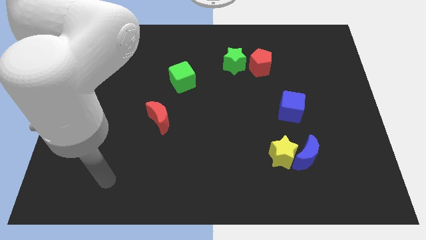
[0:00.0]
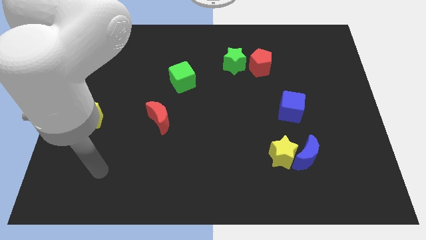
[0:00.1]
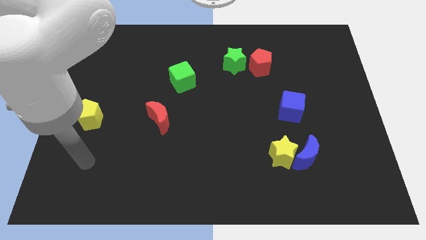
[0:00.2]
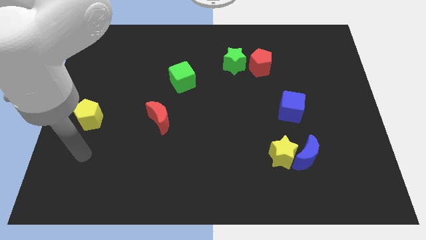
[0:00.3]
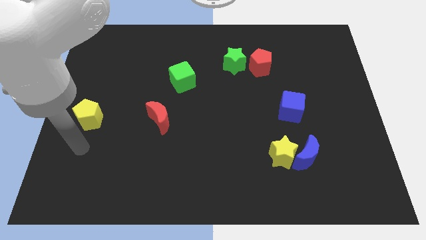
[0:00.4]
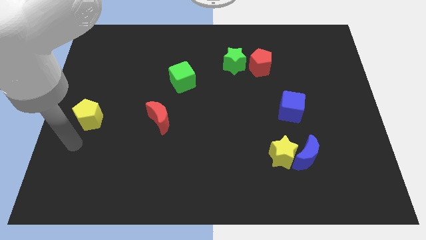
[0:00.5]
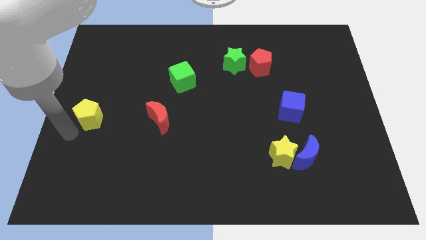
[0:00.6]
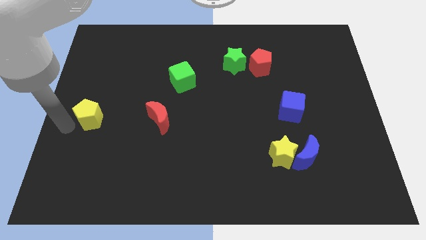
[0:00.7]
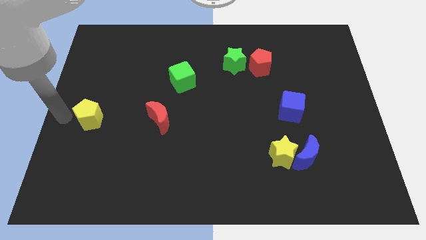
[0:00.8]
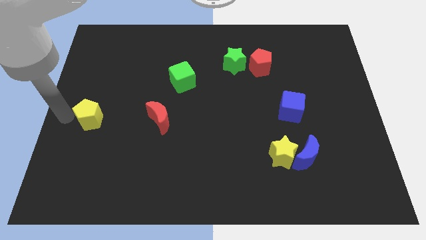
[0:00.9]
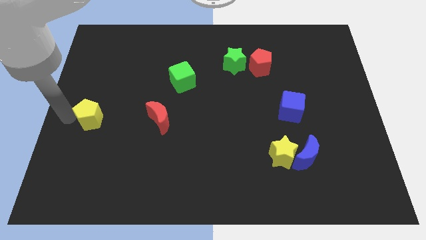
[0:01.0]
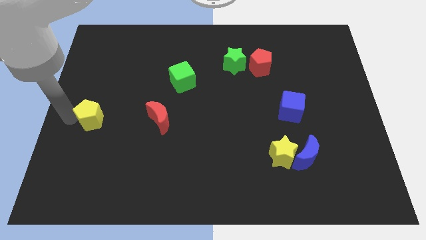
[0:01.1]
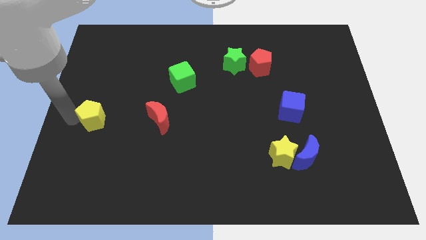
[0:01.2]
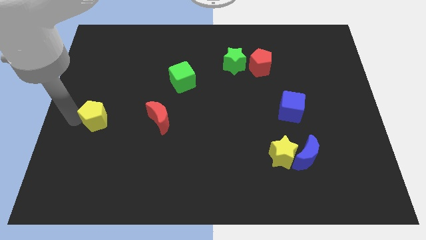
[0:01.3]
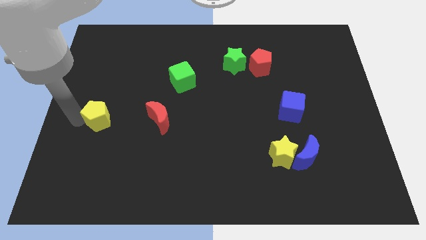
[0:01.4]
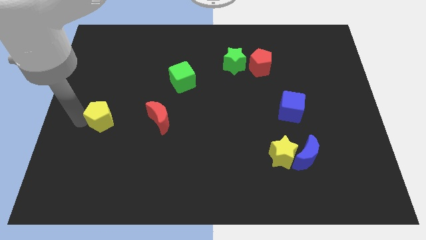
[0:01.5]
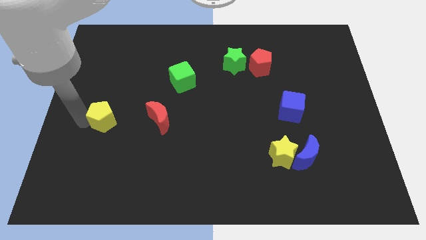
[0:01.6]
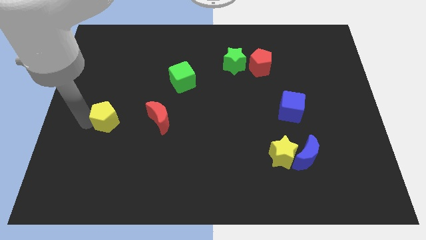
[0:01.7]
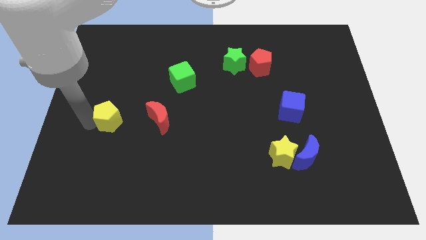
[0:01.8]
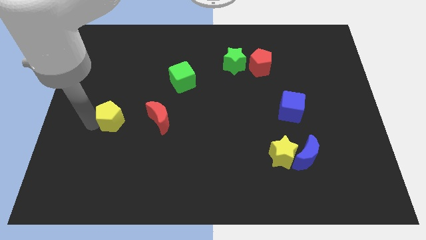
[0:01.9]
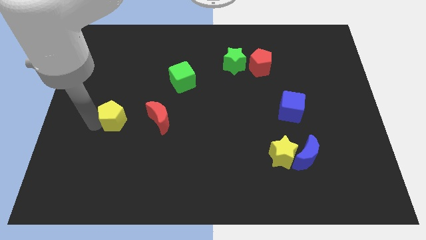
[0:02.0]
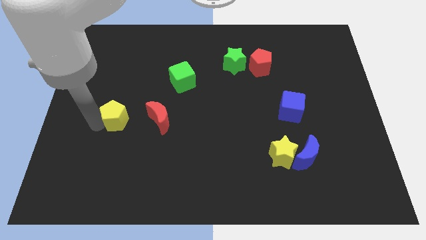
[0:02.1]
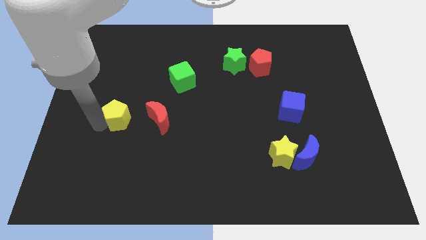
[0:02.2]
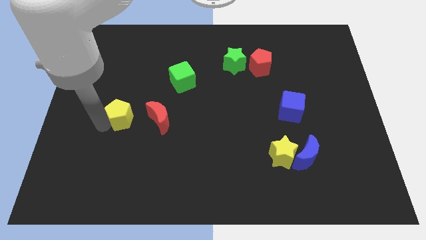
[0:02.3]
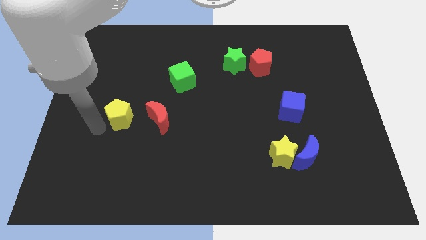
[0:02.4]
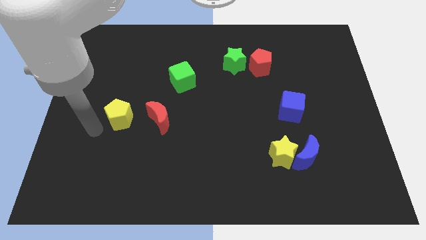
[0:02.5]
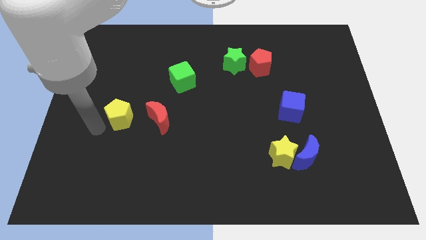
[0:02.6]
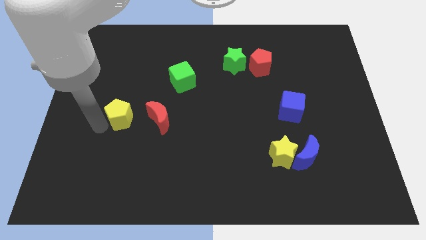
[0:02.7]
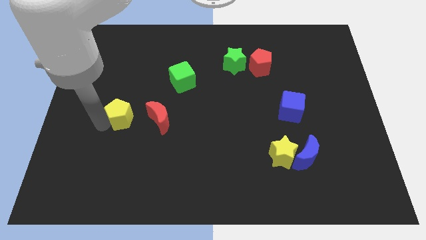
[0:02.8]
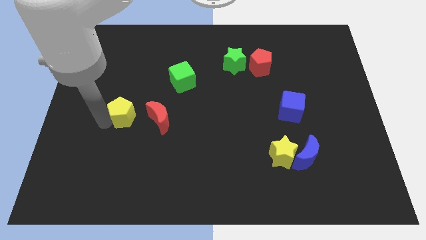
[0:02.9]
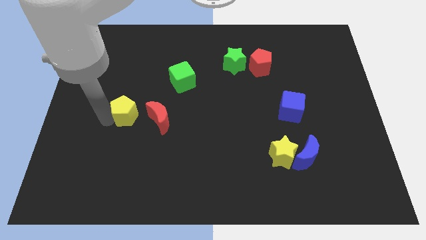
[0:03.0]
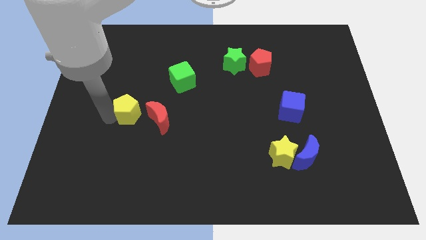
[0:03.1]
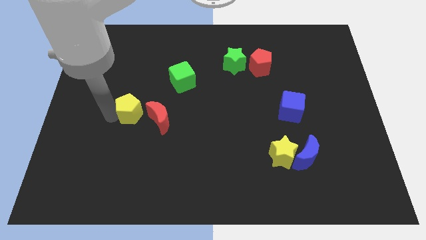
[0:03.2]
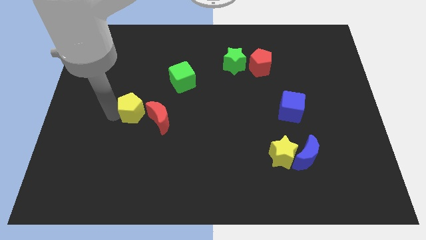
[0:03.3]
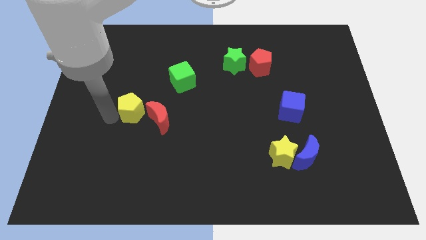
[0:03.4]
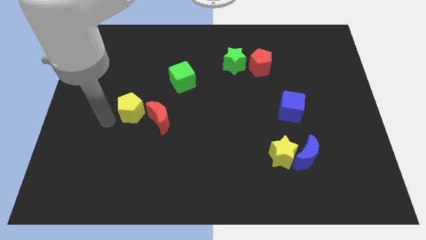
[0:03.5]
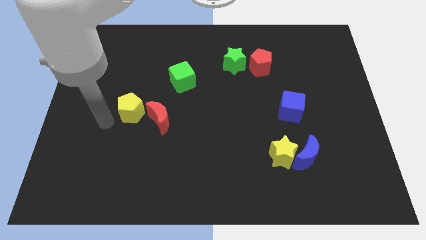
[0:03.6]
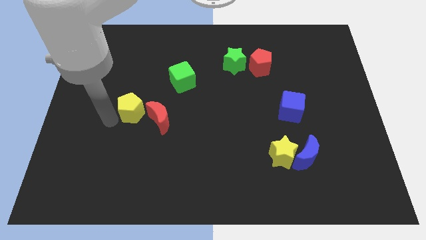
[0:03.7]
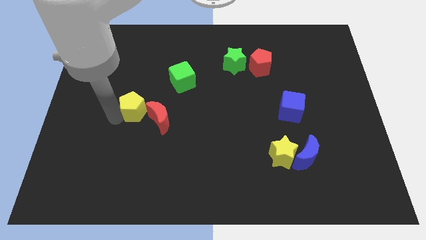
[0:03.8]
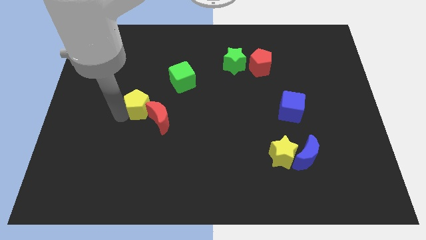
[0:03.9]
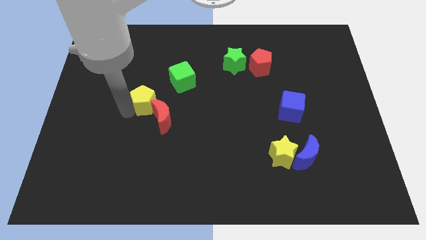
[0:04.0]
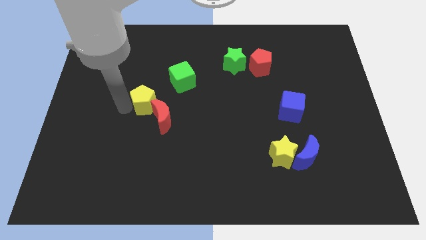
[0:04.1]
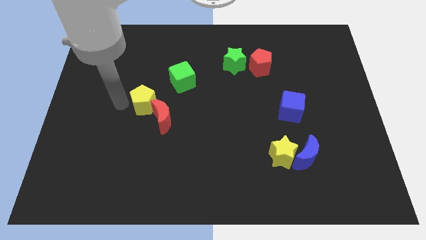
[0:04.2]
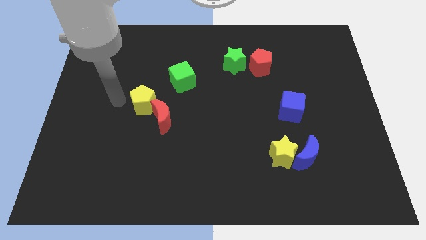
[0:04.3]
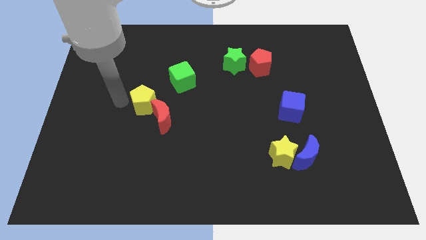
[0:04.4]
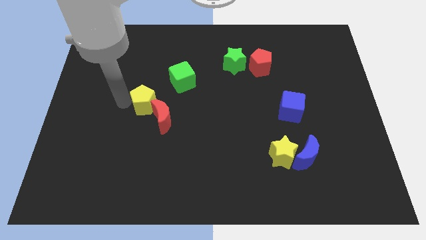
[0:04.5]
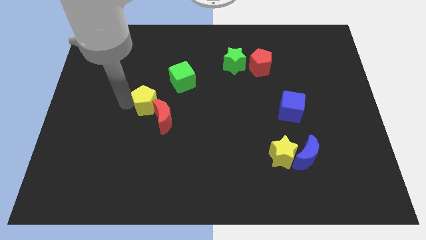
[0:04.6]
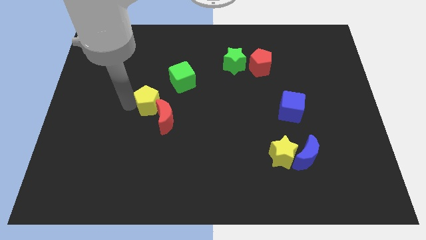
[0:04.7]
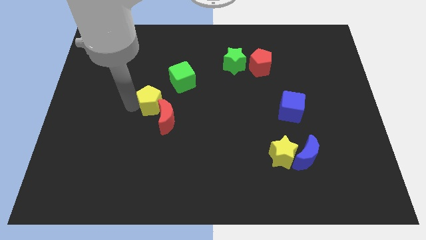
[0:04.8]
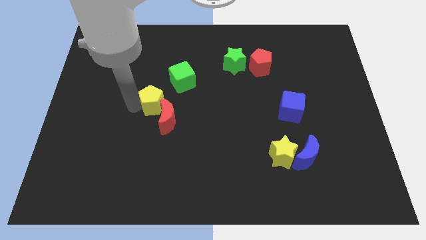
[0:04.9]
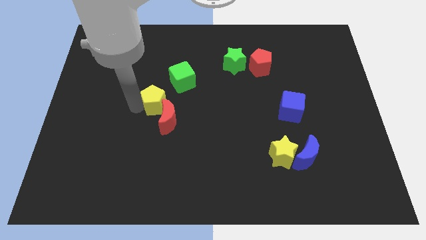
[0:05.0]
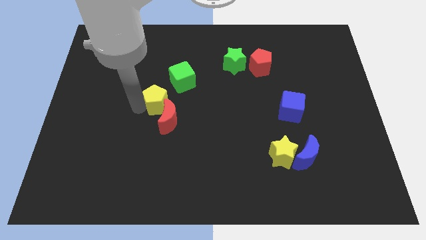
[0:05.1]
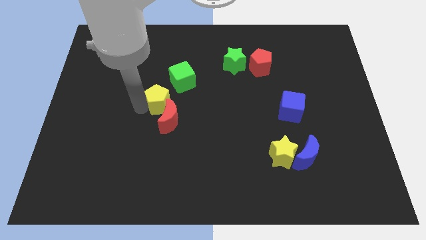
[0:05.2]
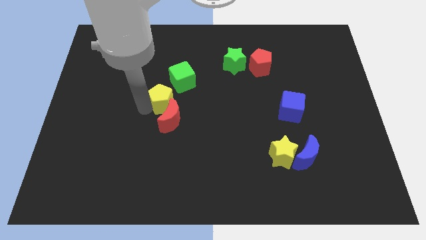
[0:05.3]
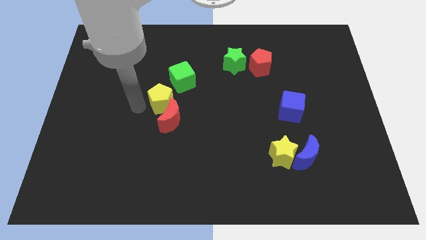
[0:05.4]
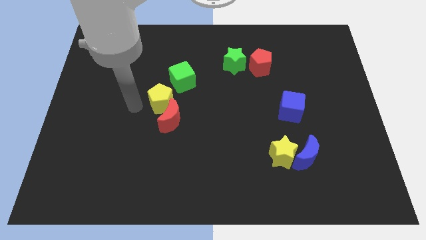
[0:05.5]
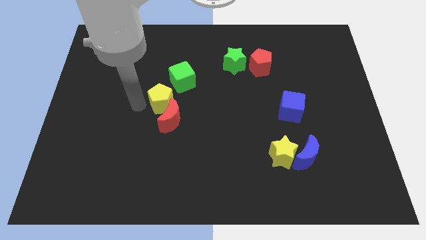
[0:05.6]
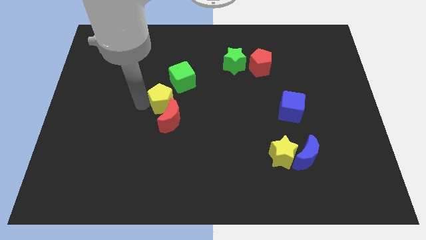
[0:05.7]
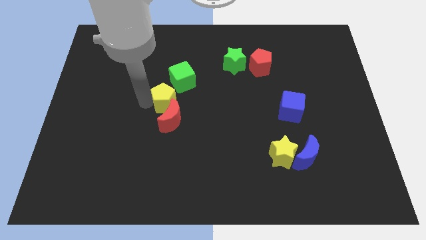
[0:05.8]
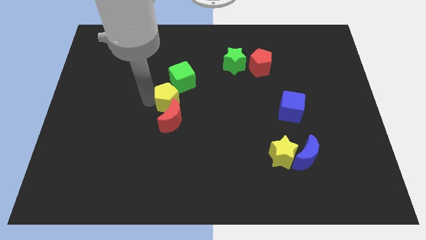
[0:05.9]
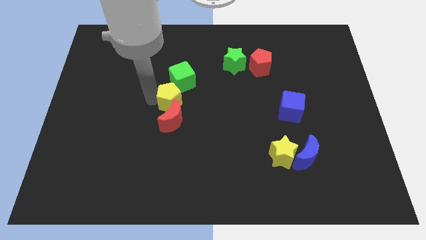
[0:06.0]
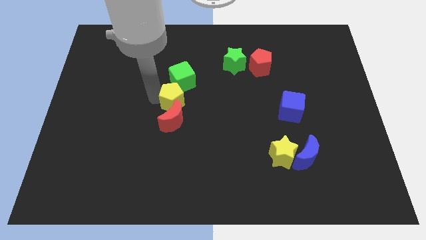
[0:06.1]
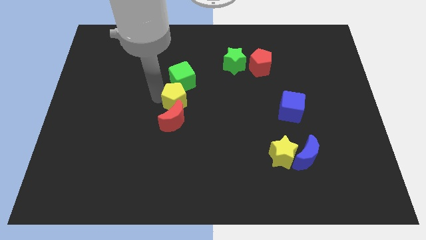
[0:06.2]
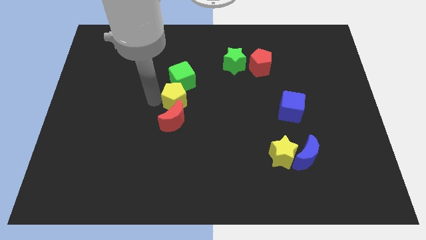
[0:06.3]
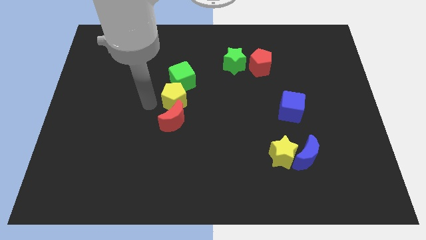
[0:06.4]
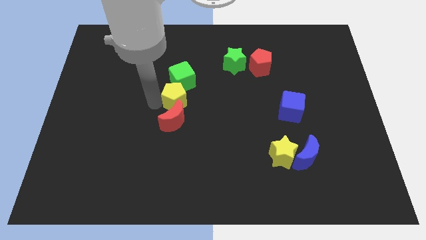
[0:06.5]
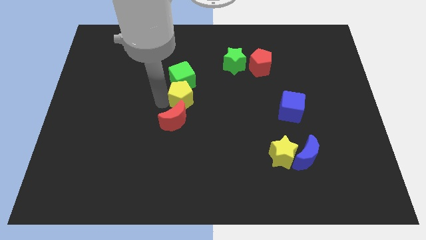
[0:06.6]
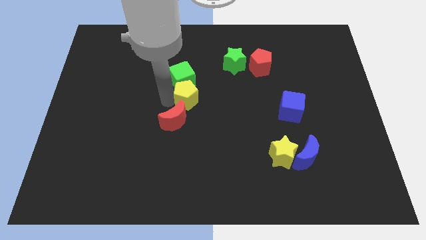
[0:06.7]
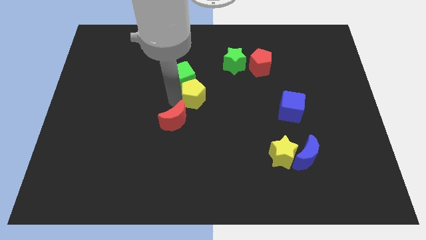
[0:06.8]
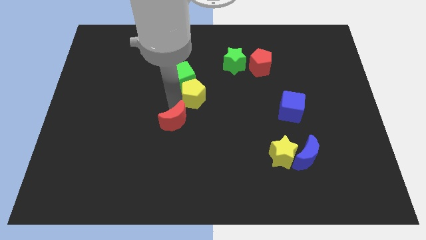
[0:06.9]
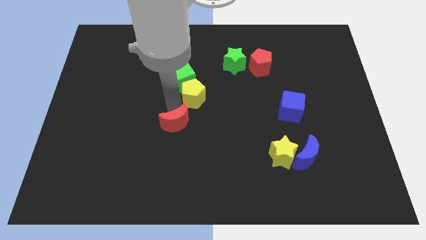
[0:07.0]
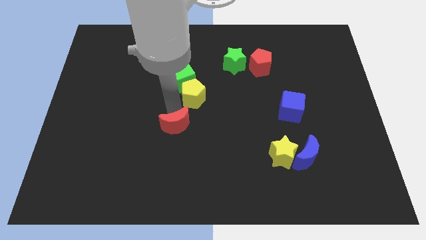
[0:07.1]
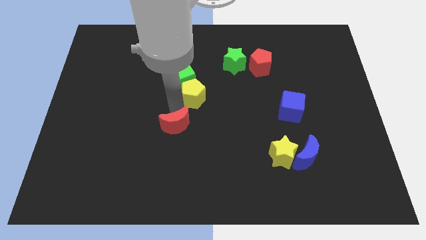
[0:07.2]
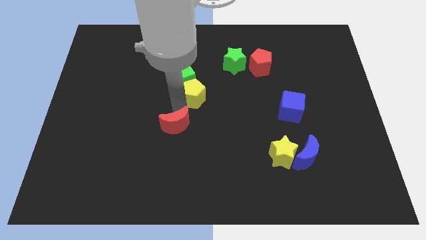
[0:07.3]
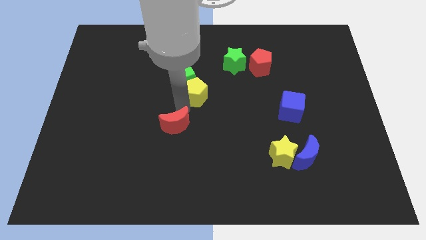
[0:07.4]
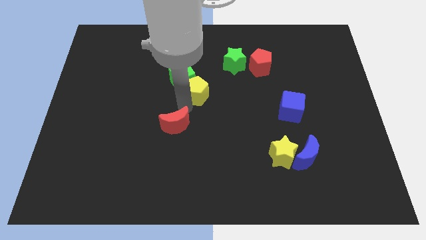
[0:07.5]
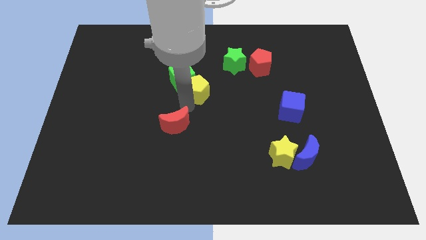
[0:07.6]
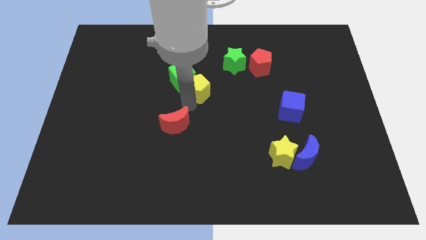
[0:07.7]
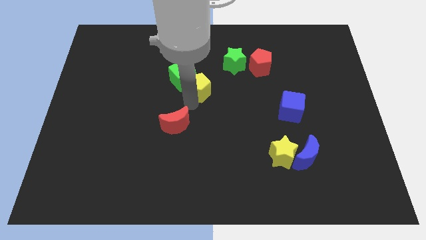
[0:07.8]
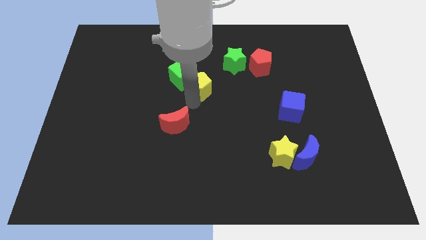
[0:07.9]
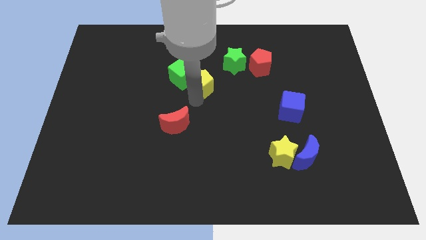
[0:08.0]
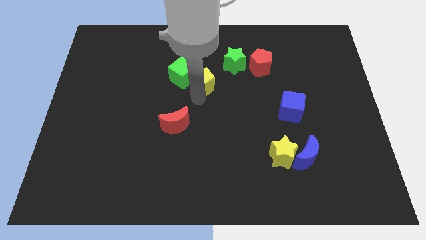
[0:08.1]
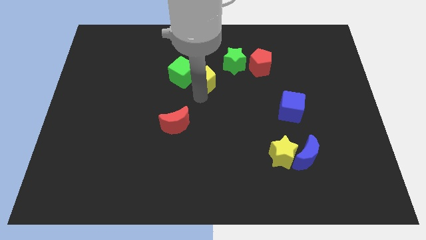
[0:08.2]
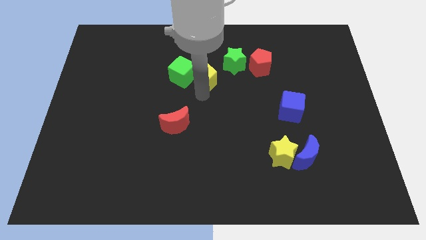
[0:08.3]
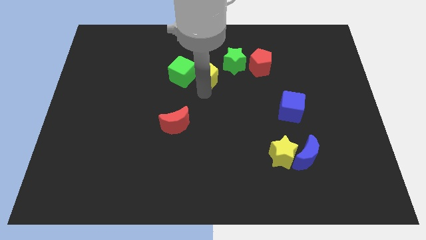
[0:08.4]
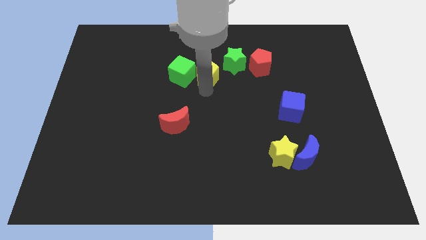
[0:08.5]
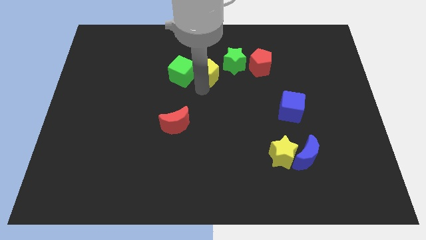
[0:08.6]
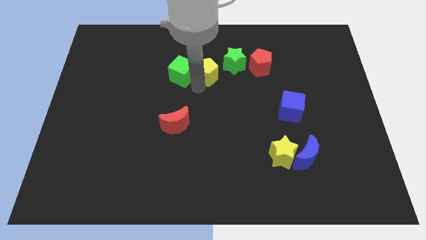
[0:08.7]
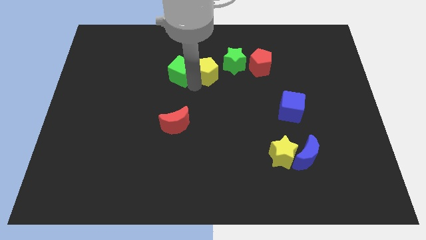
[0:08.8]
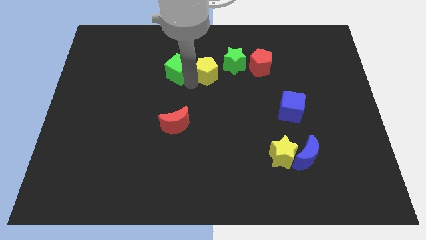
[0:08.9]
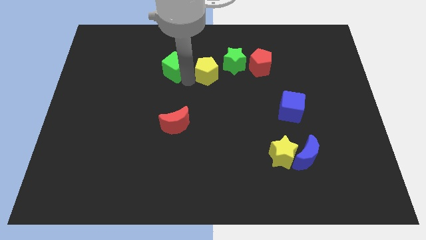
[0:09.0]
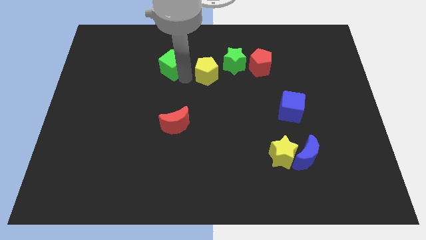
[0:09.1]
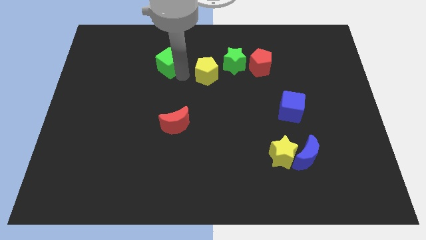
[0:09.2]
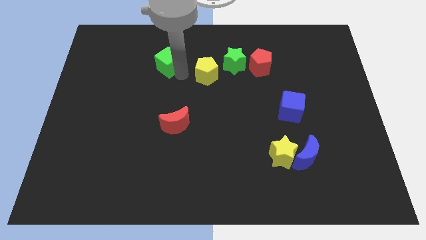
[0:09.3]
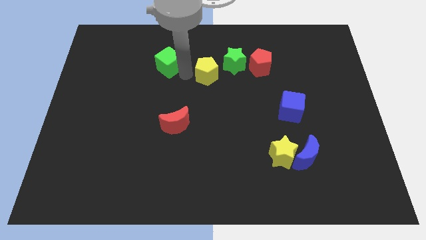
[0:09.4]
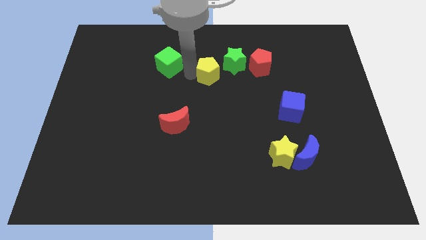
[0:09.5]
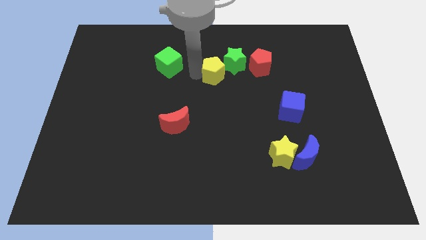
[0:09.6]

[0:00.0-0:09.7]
slide the yellow pentagon next to the green star
